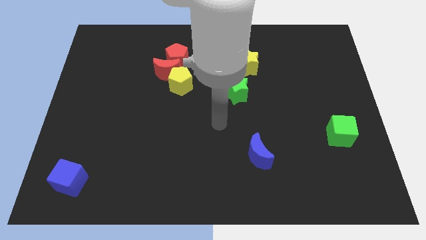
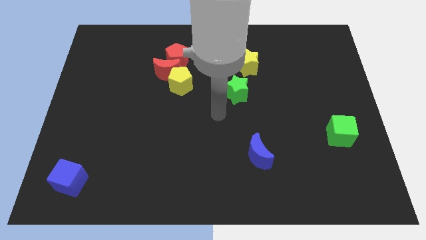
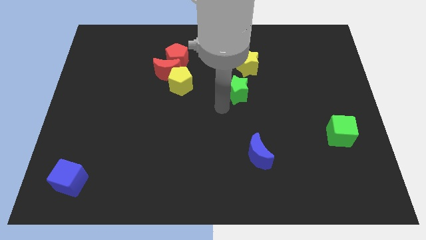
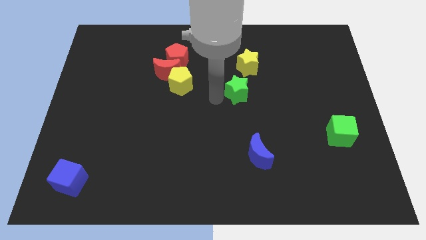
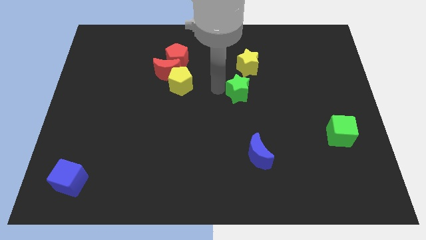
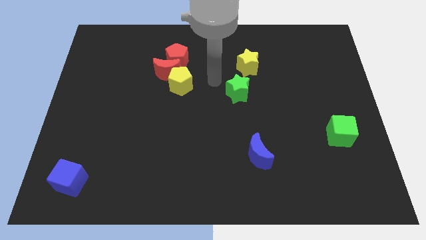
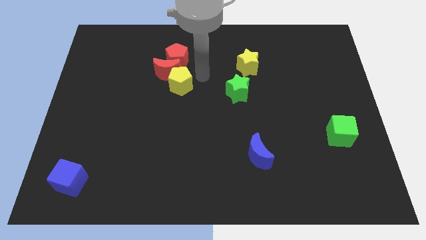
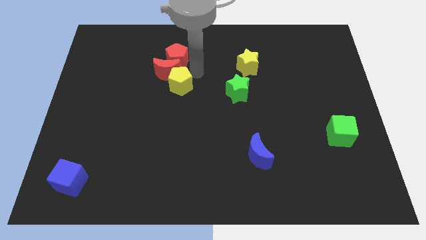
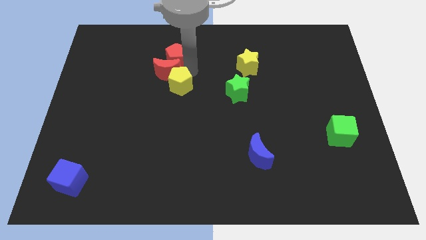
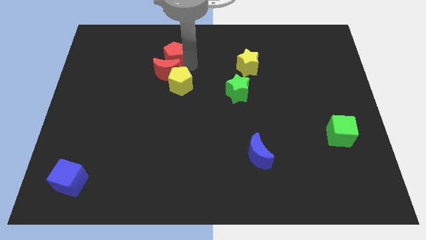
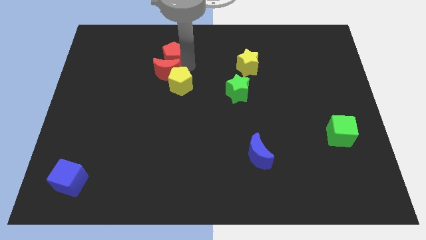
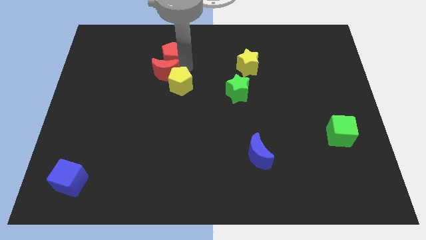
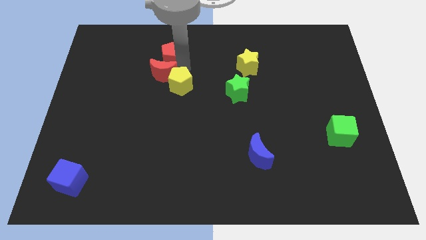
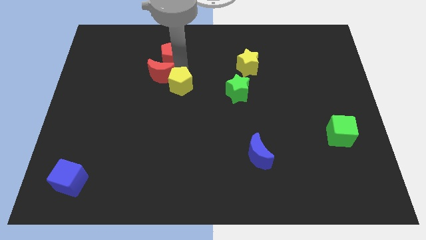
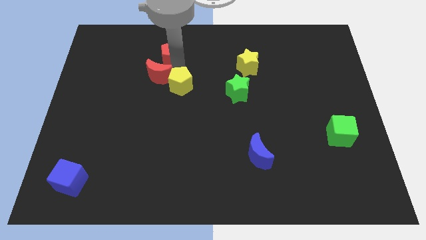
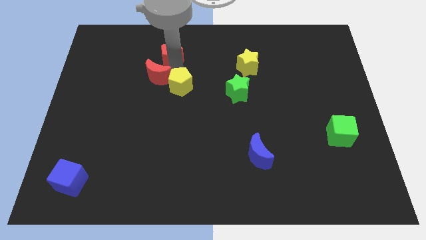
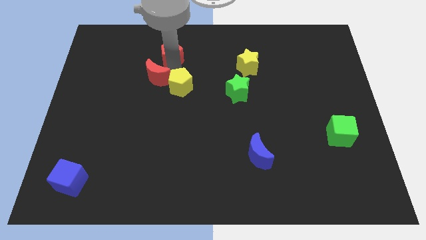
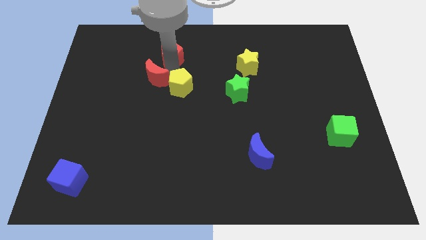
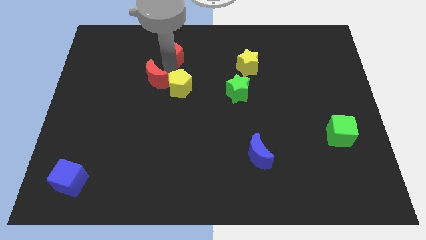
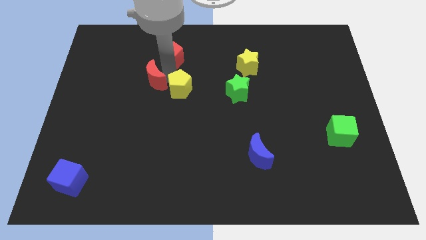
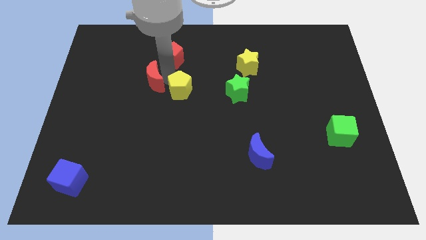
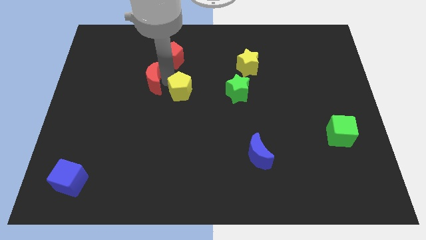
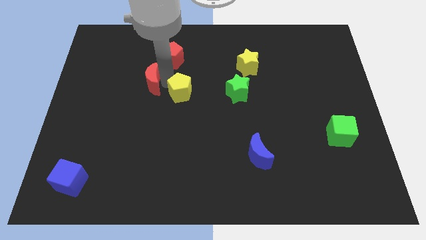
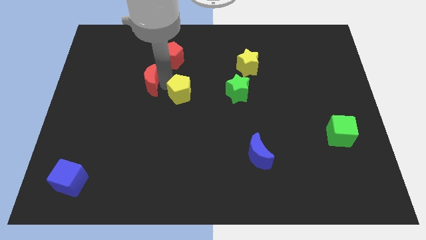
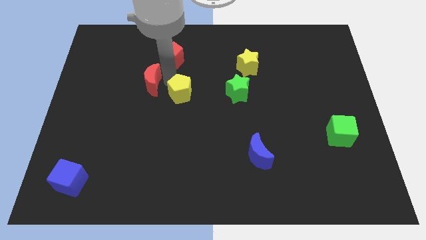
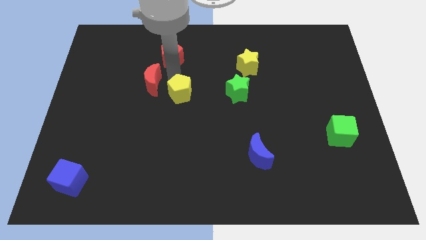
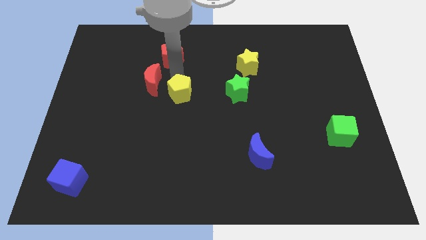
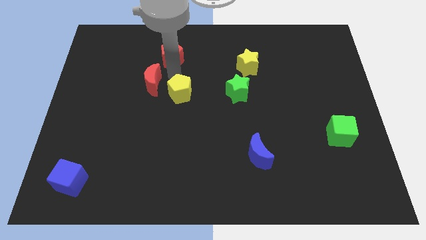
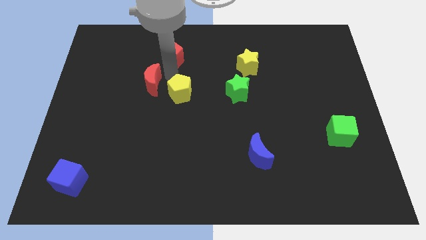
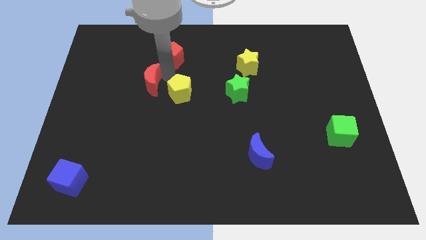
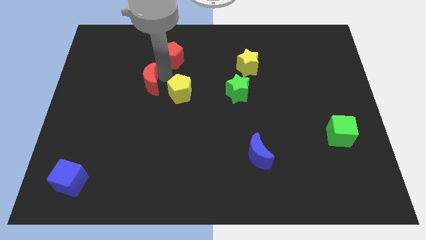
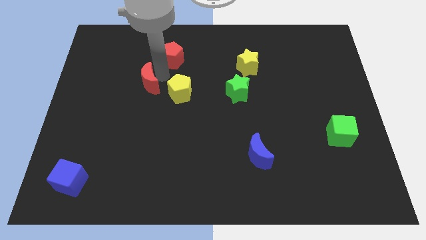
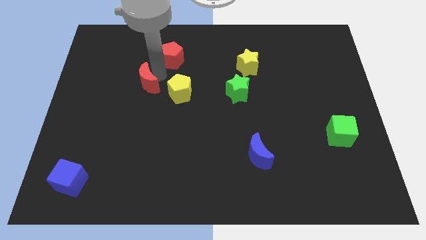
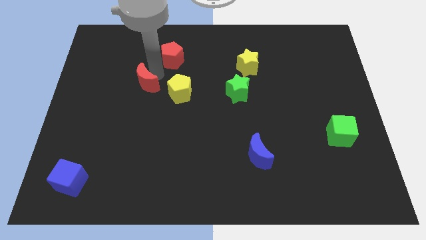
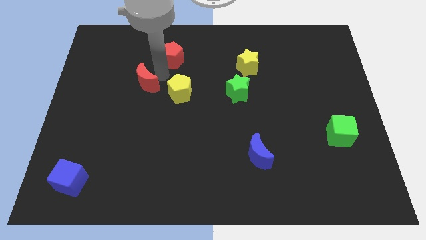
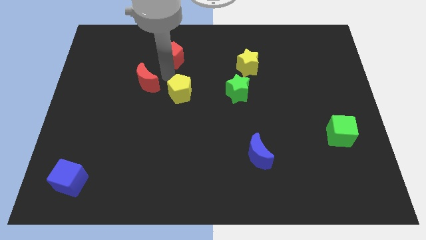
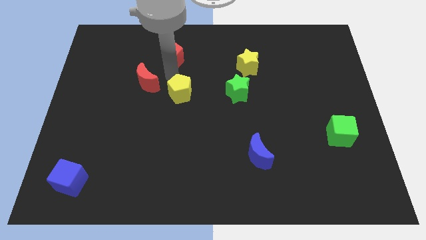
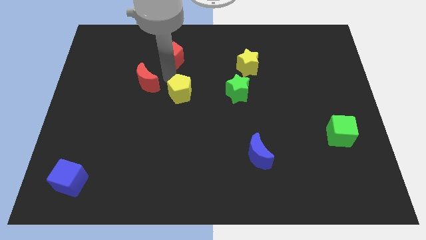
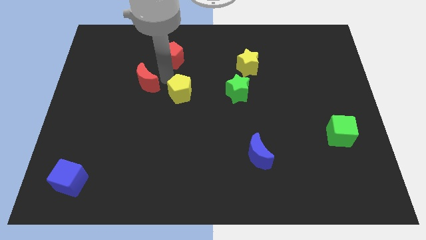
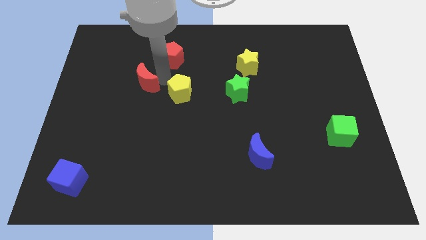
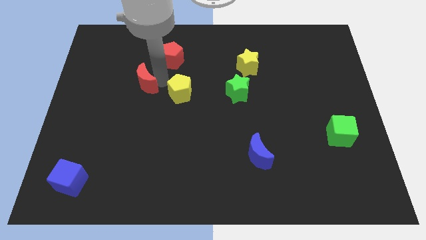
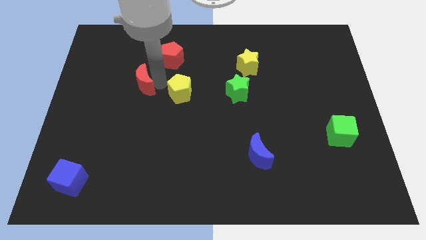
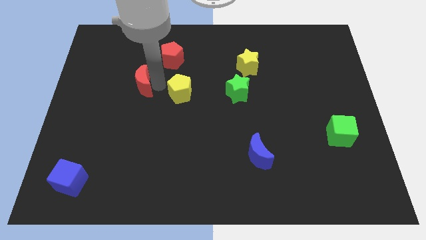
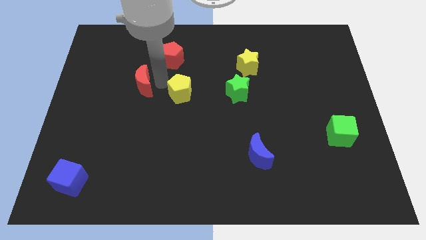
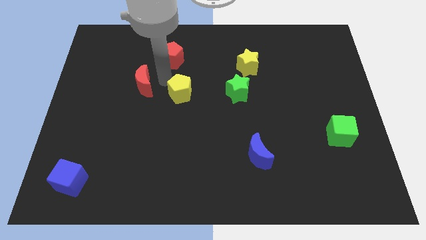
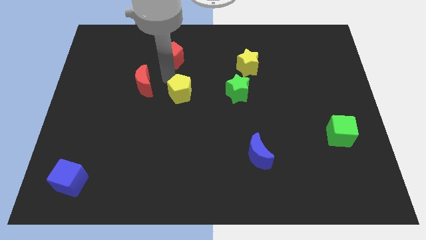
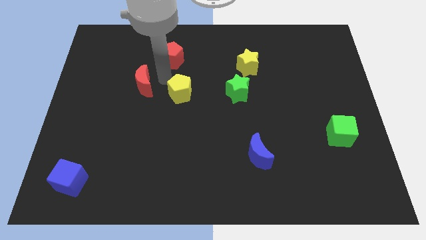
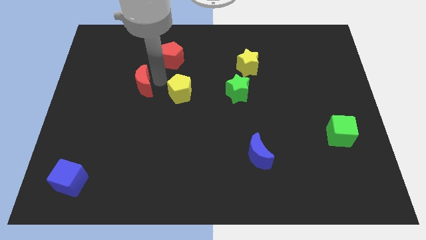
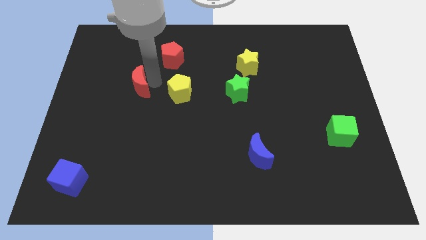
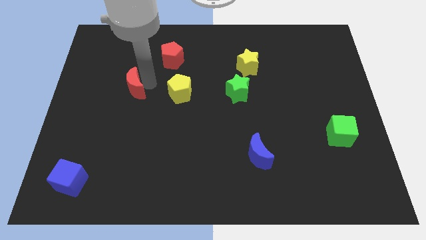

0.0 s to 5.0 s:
pull the red moon apart from the red pentagon and yellow pentagon

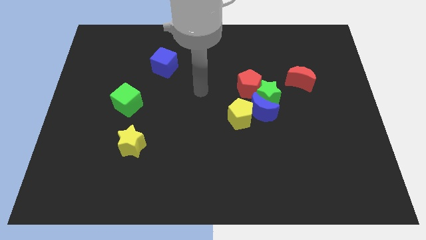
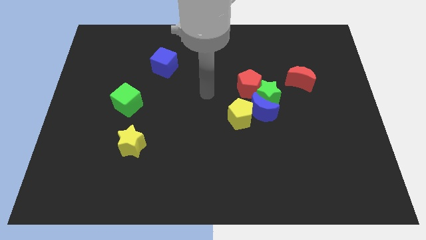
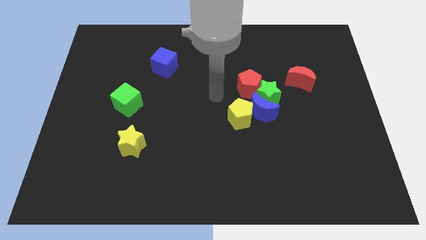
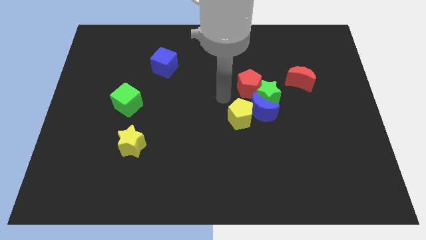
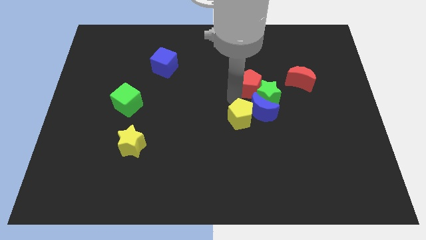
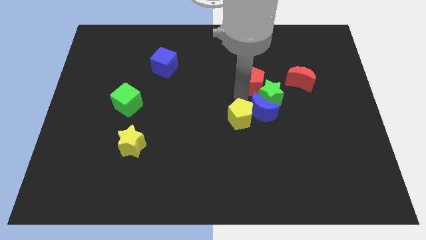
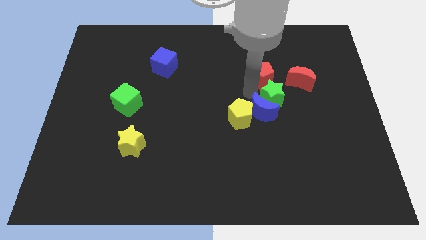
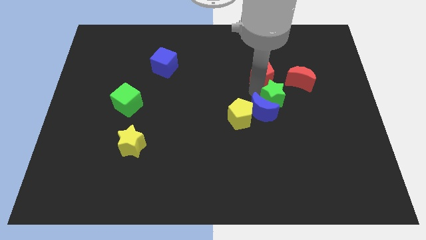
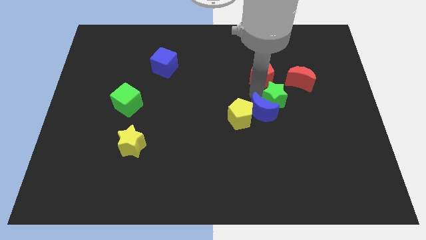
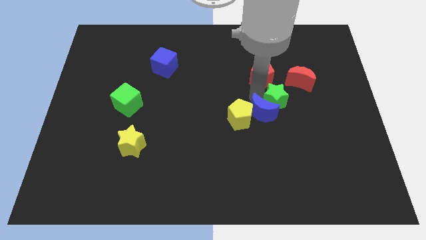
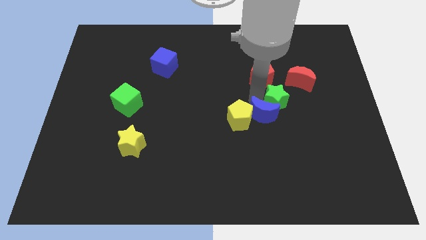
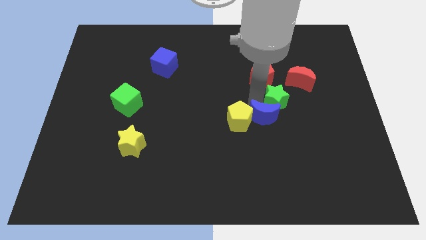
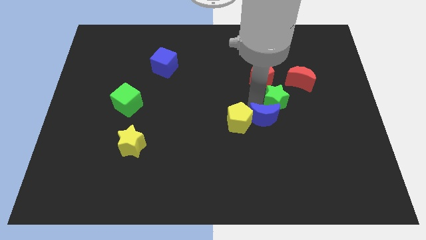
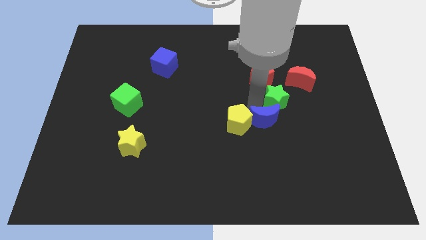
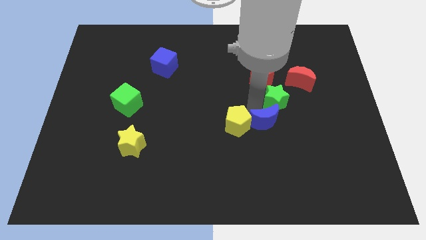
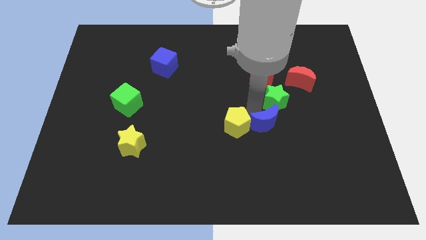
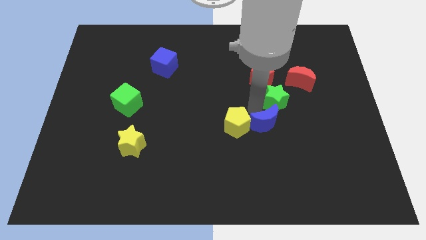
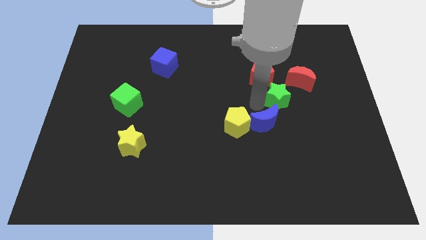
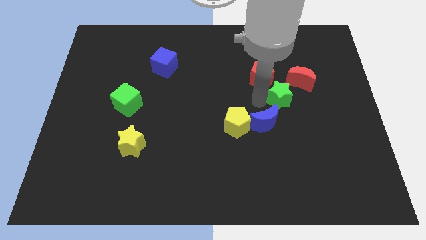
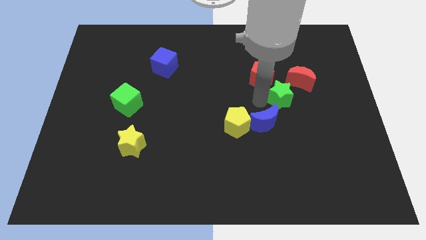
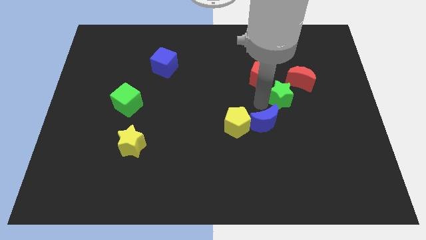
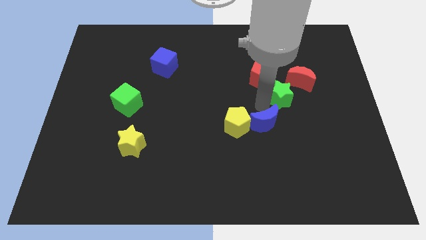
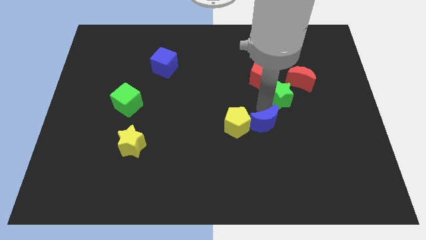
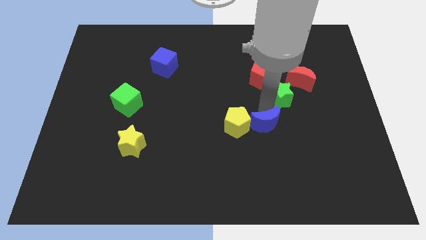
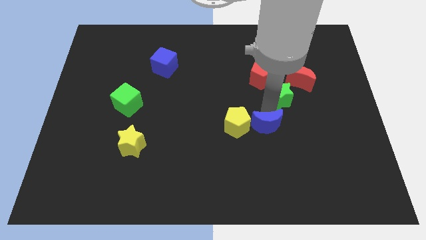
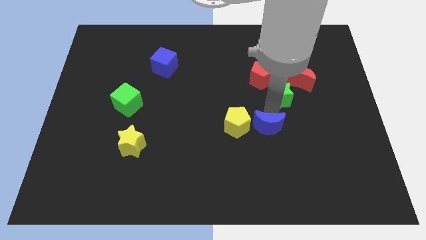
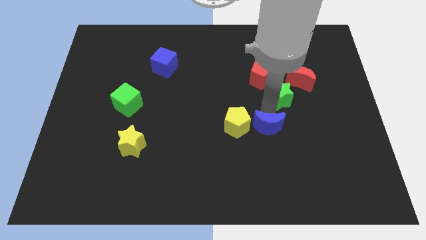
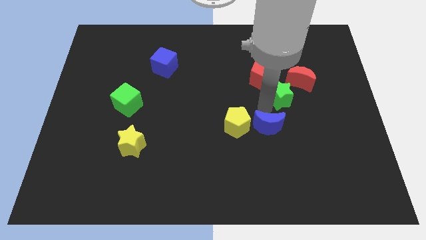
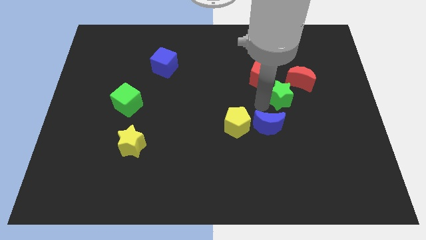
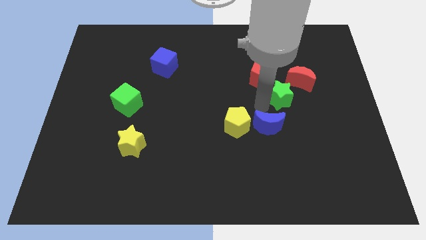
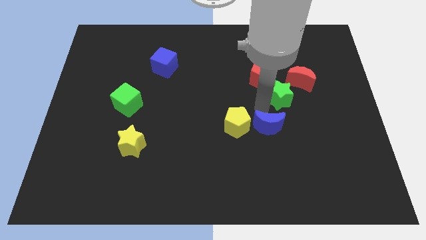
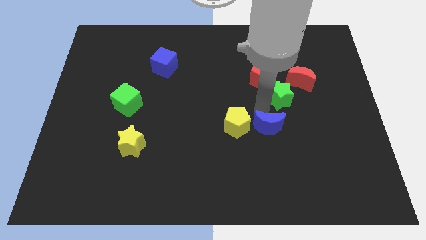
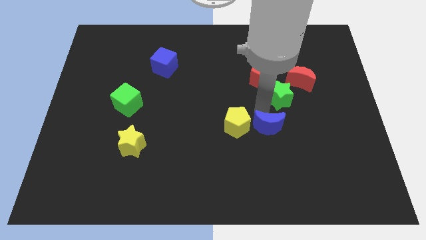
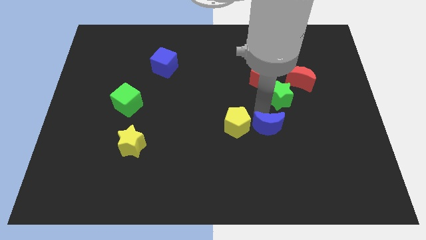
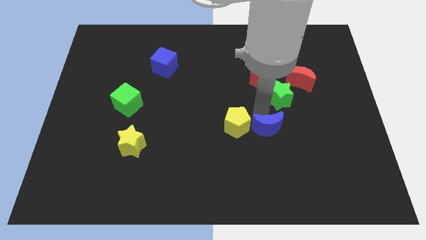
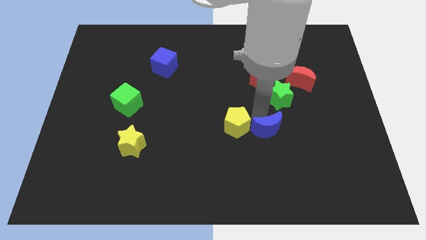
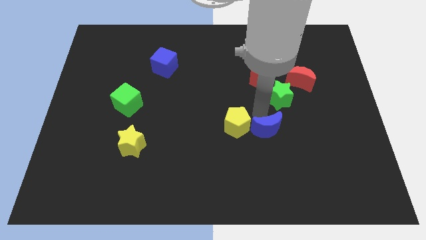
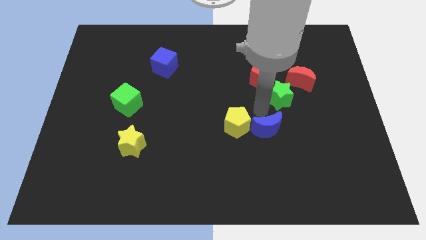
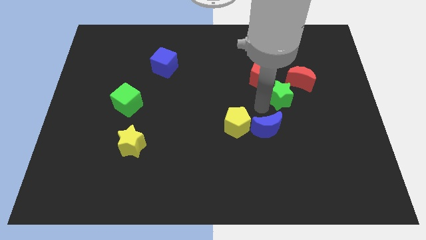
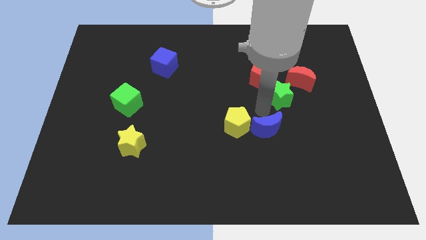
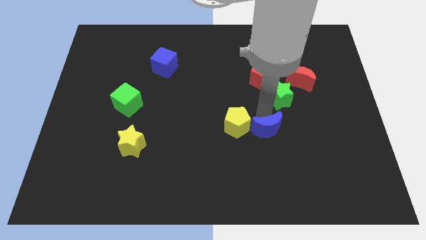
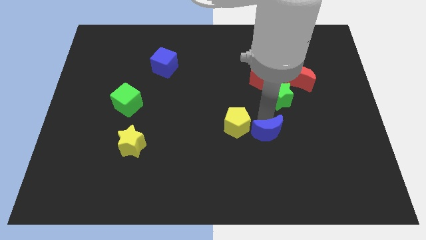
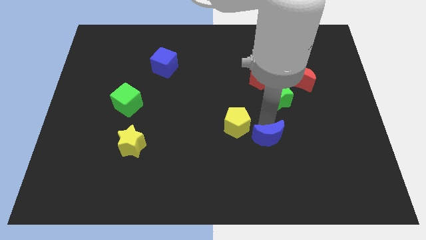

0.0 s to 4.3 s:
separate the blue moon from the green star, yellow pentagon, and red pentagon

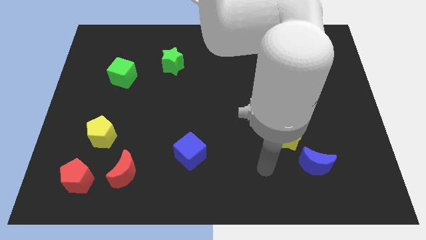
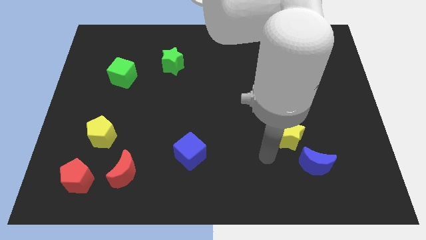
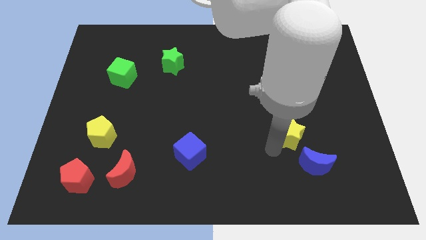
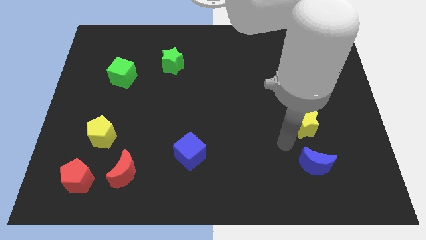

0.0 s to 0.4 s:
pull the blue moon apart from the yellow star
